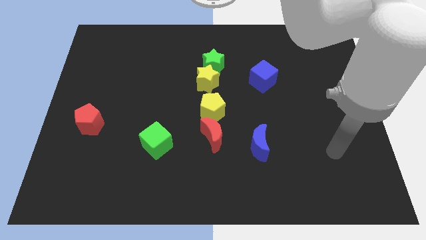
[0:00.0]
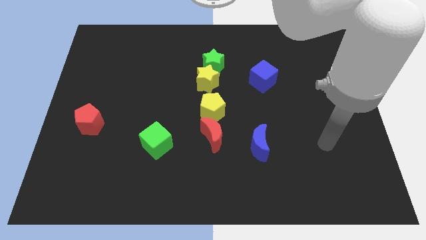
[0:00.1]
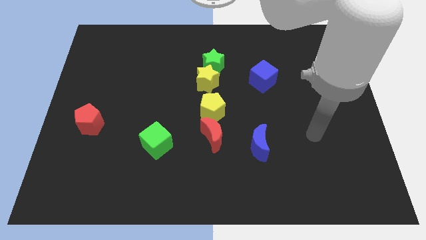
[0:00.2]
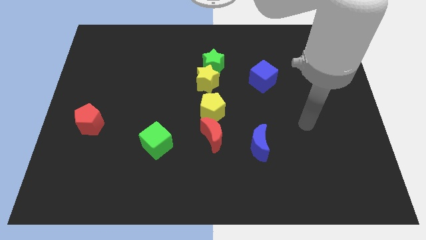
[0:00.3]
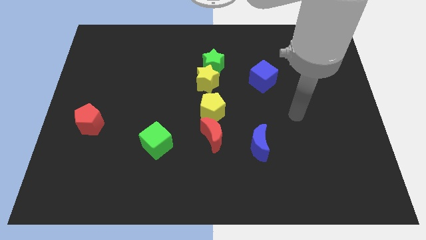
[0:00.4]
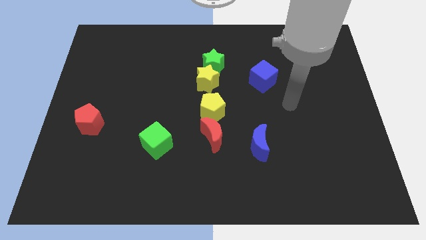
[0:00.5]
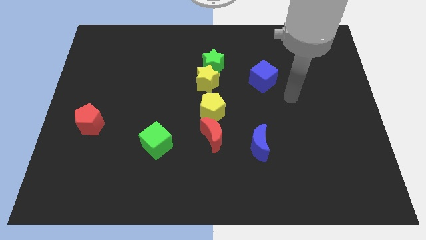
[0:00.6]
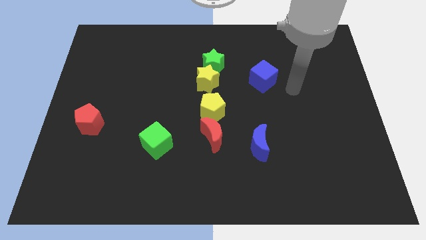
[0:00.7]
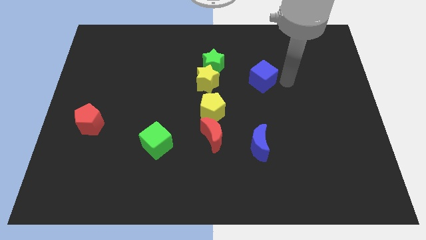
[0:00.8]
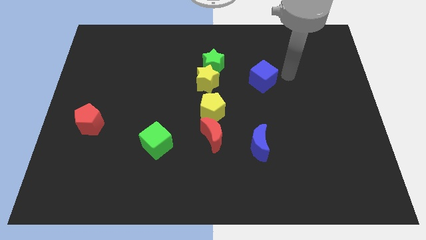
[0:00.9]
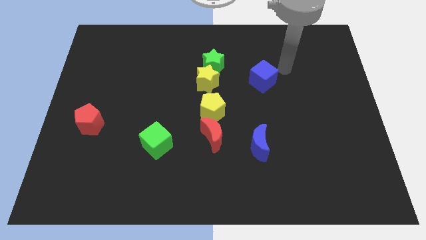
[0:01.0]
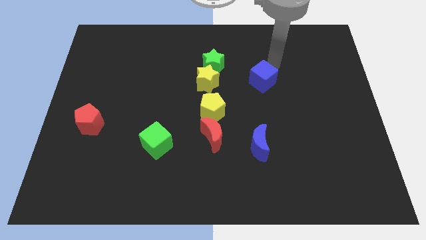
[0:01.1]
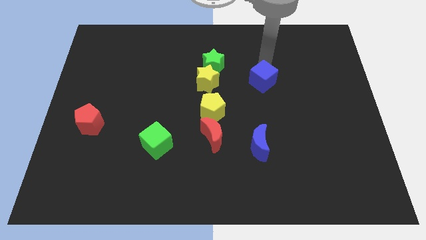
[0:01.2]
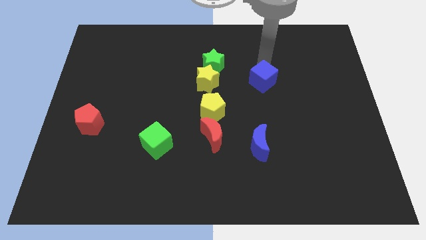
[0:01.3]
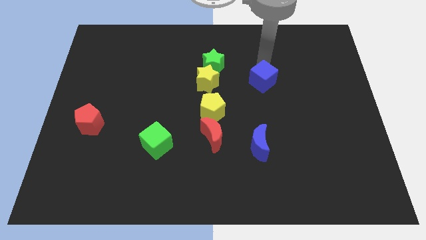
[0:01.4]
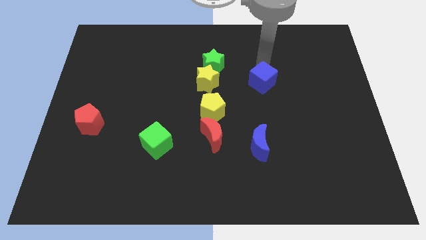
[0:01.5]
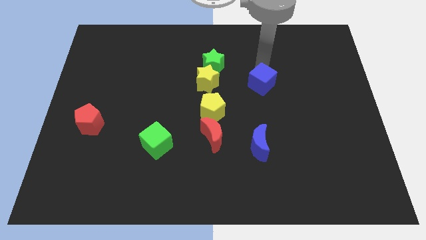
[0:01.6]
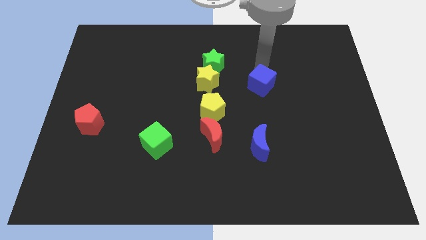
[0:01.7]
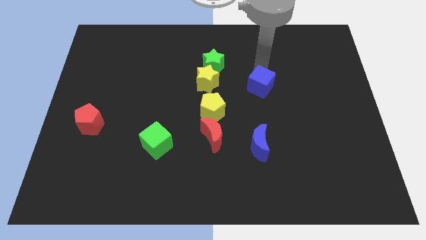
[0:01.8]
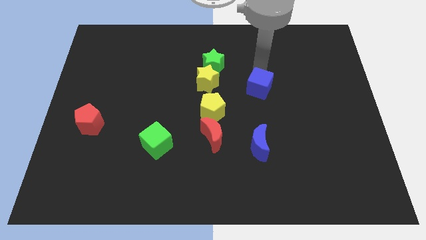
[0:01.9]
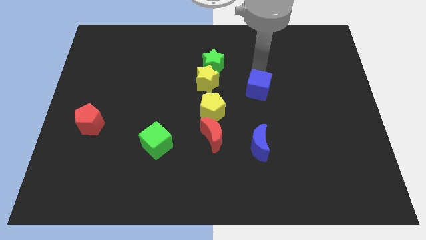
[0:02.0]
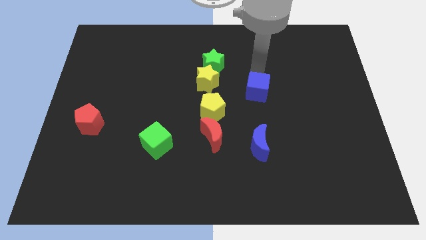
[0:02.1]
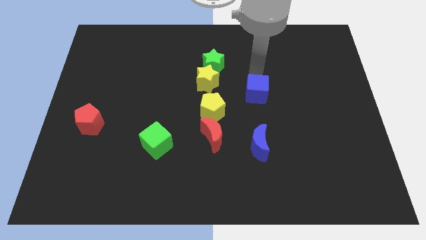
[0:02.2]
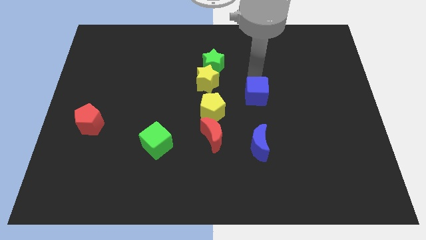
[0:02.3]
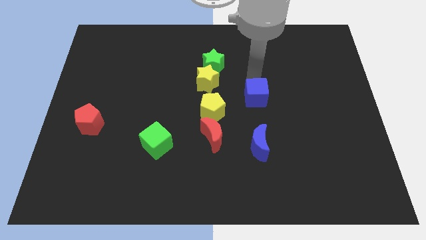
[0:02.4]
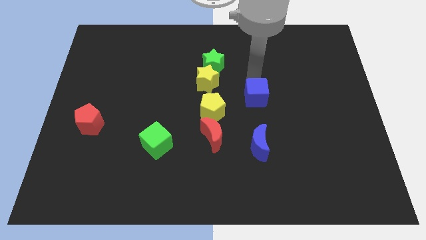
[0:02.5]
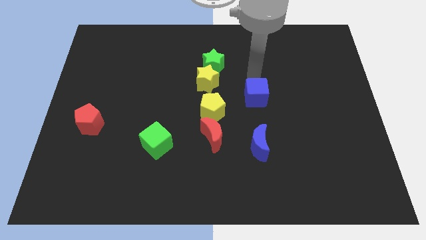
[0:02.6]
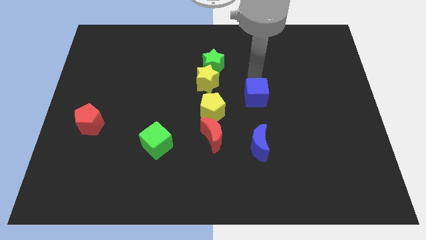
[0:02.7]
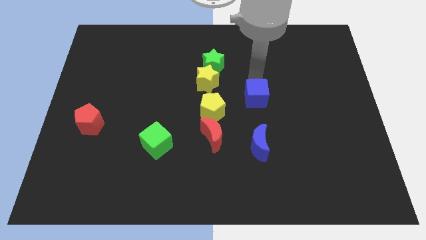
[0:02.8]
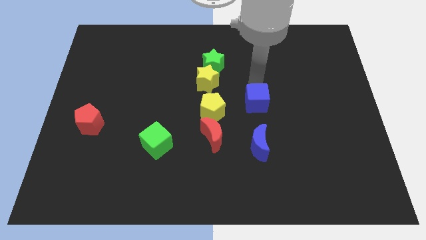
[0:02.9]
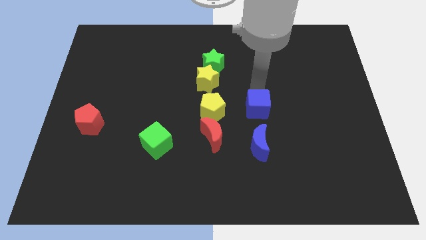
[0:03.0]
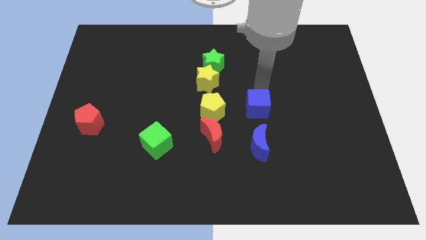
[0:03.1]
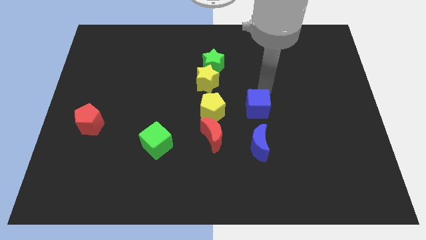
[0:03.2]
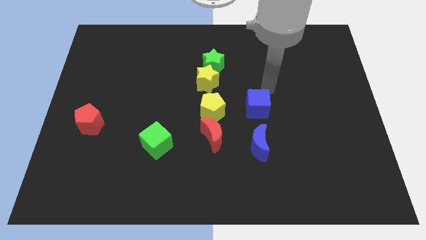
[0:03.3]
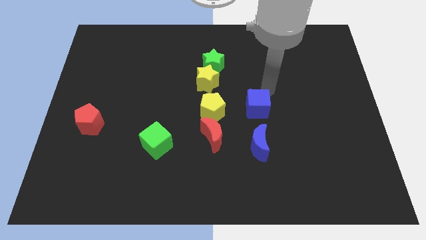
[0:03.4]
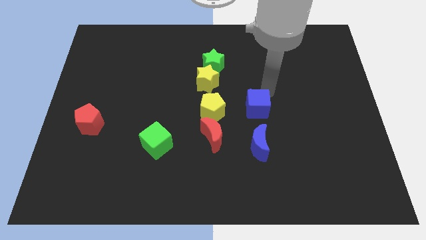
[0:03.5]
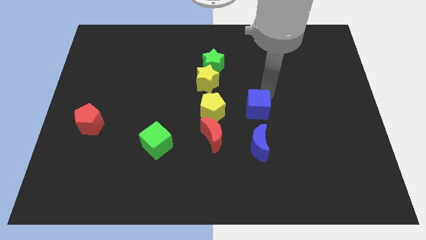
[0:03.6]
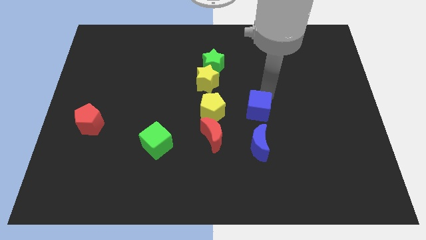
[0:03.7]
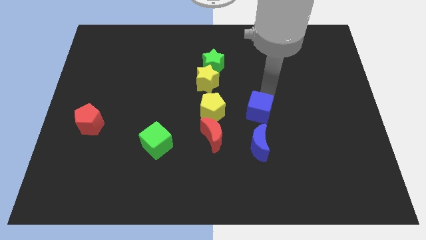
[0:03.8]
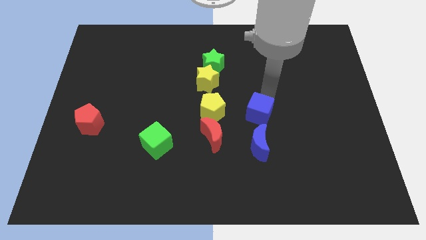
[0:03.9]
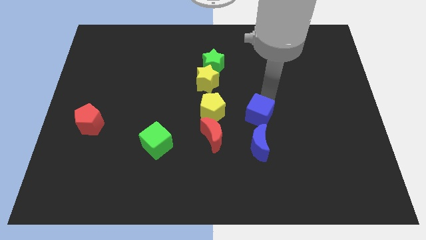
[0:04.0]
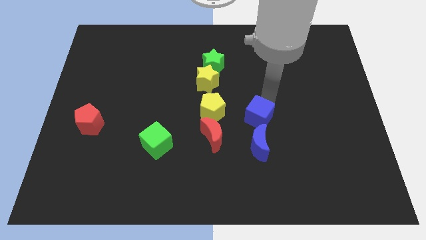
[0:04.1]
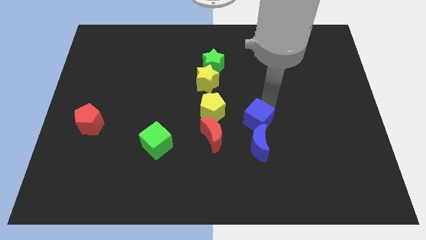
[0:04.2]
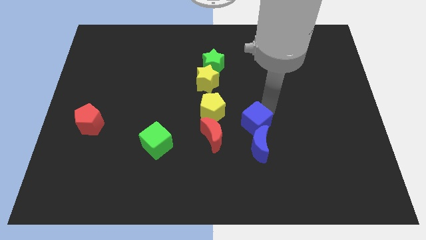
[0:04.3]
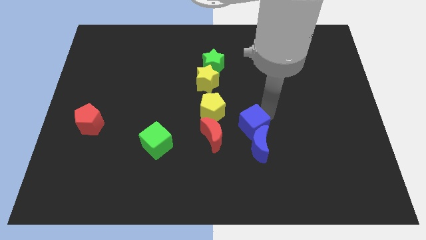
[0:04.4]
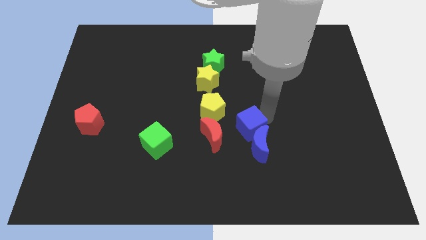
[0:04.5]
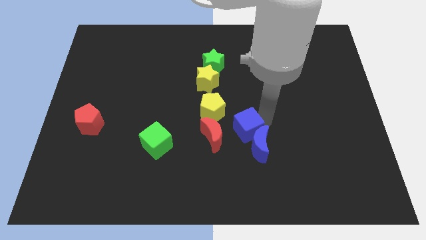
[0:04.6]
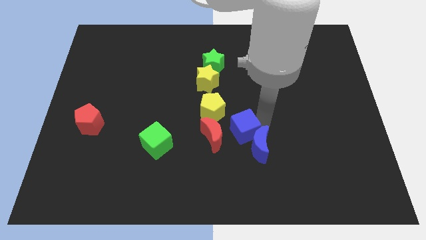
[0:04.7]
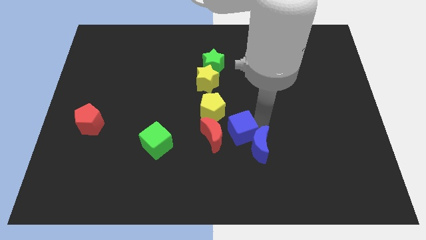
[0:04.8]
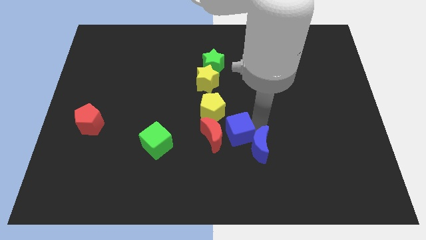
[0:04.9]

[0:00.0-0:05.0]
push the blue cube close to the red moon

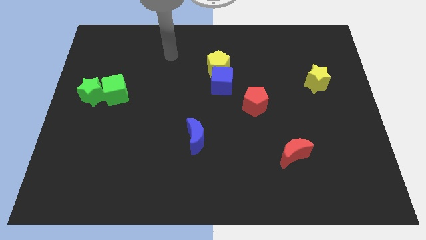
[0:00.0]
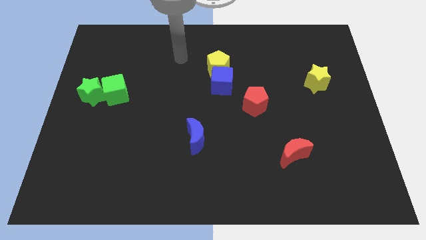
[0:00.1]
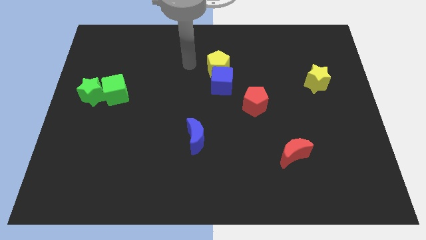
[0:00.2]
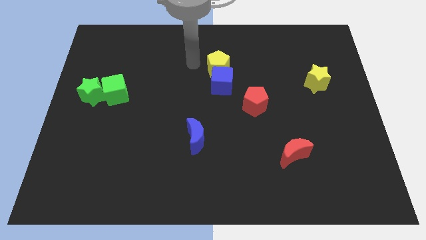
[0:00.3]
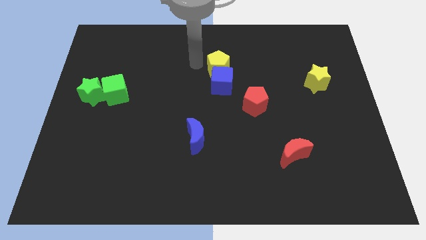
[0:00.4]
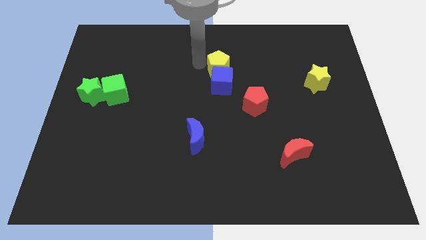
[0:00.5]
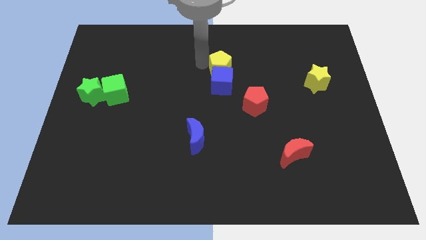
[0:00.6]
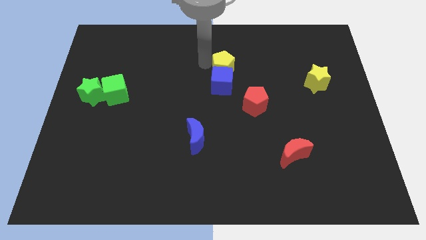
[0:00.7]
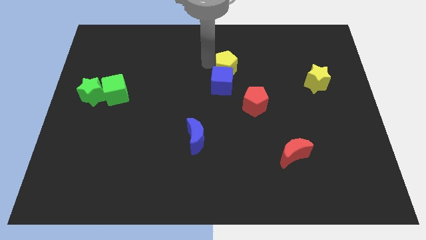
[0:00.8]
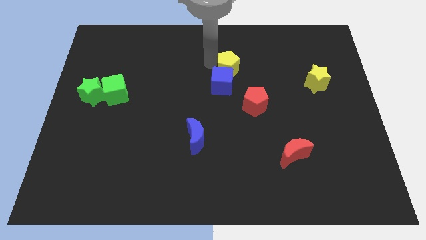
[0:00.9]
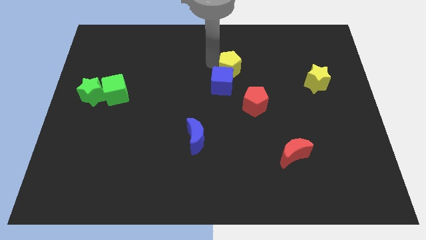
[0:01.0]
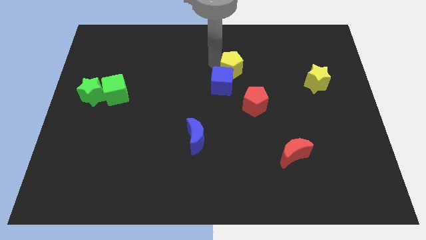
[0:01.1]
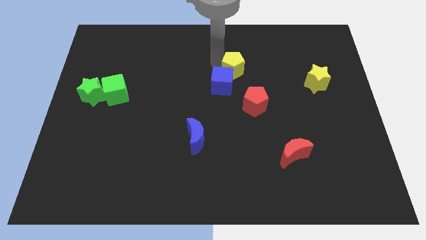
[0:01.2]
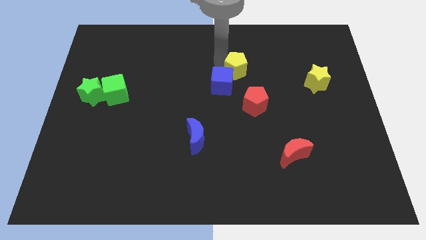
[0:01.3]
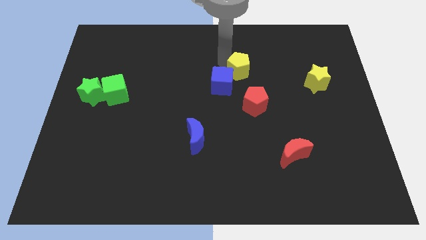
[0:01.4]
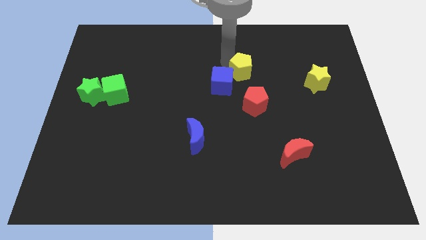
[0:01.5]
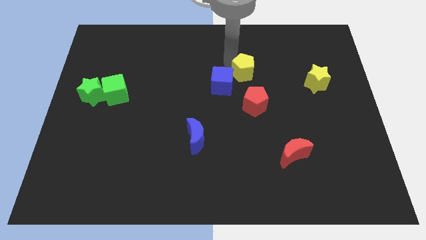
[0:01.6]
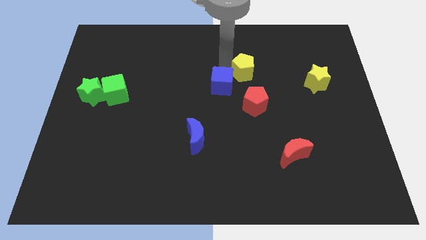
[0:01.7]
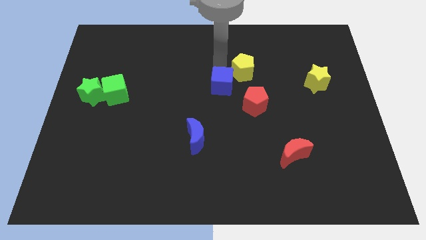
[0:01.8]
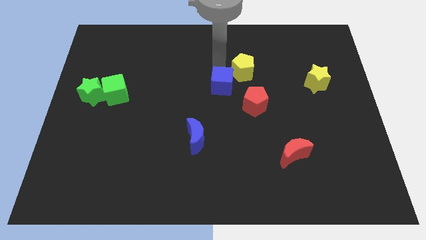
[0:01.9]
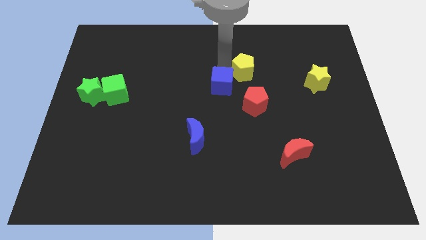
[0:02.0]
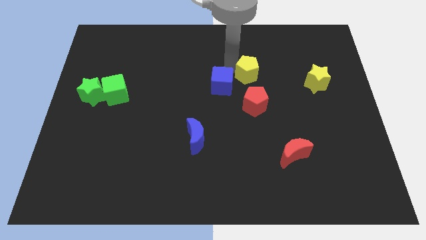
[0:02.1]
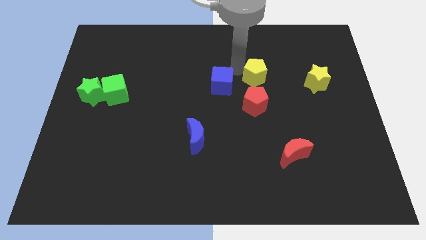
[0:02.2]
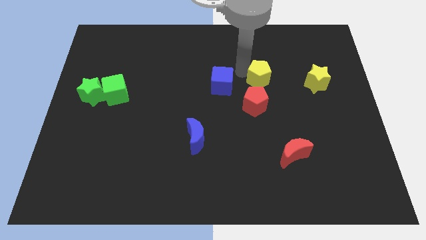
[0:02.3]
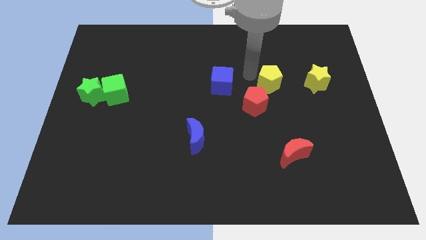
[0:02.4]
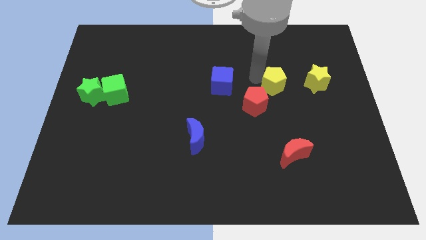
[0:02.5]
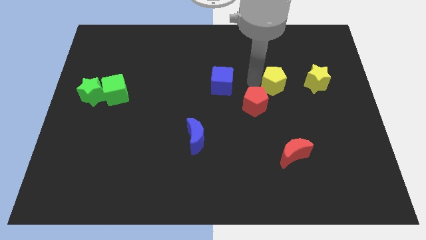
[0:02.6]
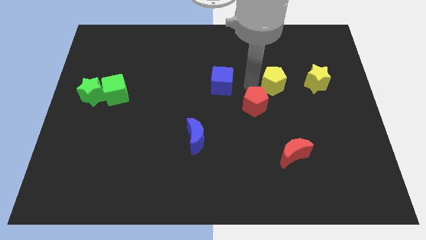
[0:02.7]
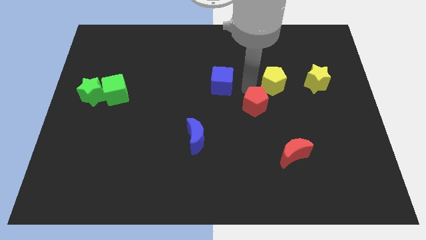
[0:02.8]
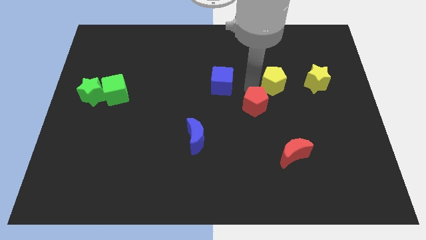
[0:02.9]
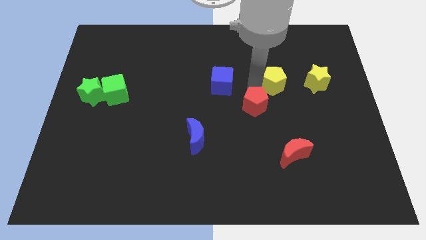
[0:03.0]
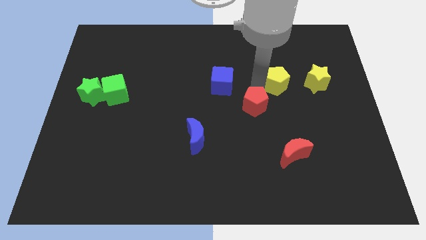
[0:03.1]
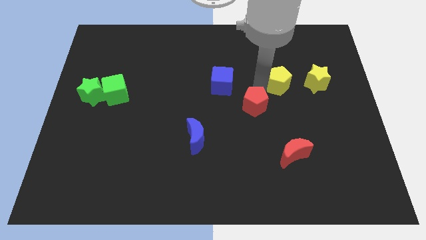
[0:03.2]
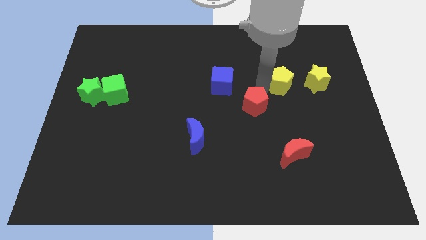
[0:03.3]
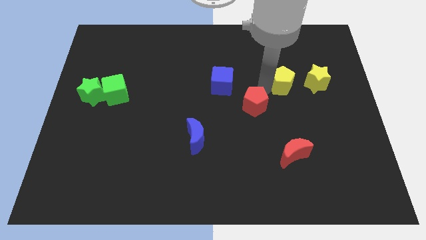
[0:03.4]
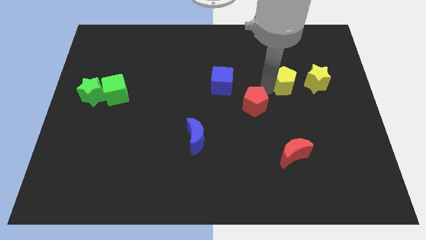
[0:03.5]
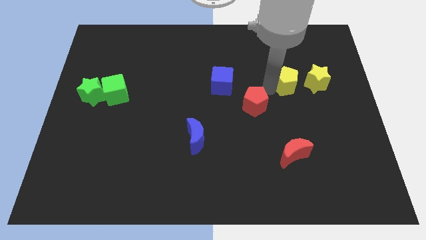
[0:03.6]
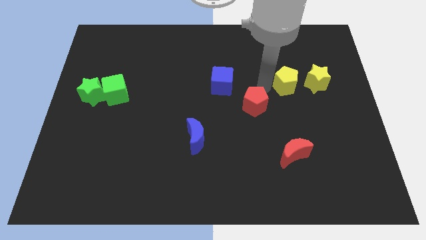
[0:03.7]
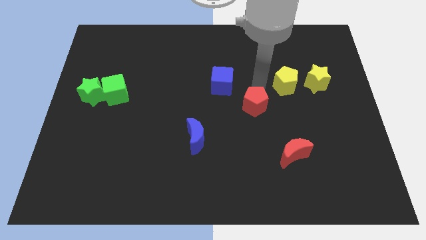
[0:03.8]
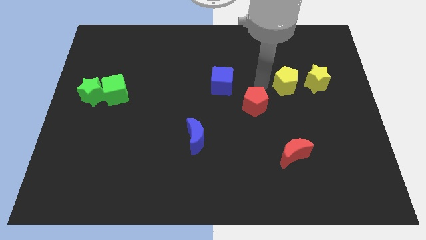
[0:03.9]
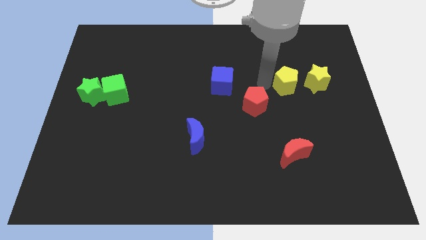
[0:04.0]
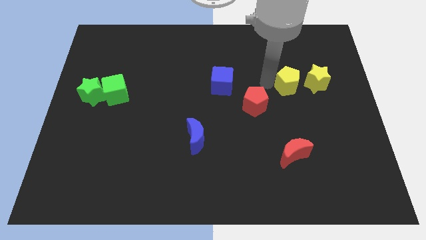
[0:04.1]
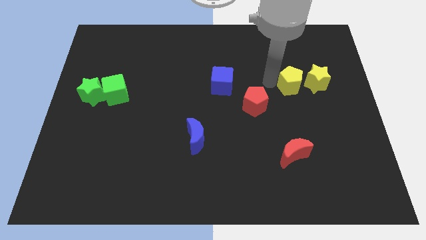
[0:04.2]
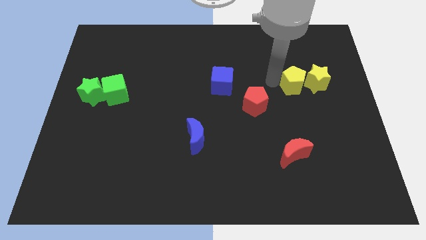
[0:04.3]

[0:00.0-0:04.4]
put the yellow pentagon towards the yellow star
